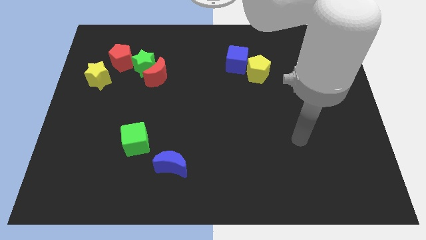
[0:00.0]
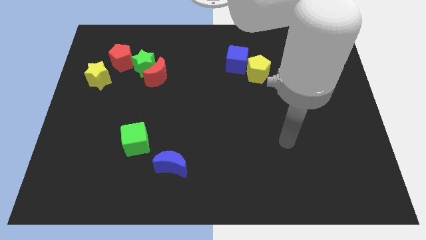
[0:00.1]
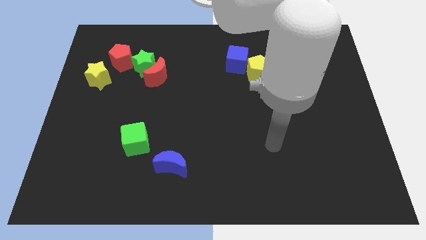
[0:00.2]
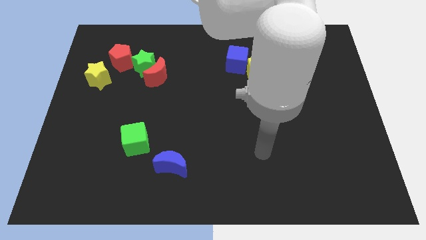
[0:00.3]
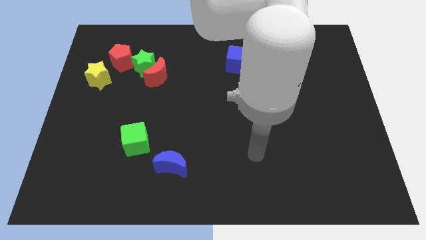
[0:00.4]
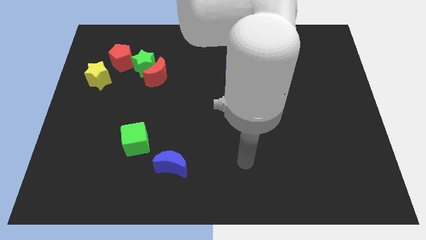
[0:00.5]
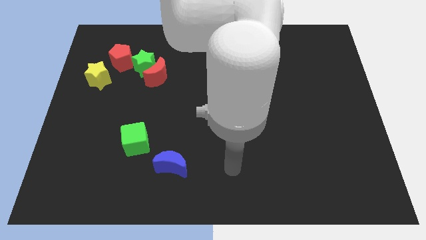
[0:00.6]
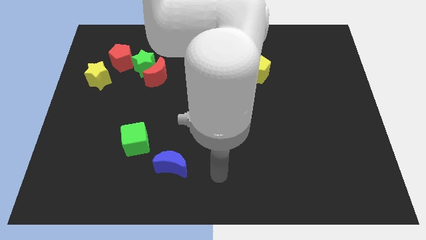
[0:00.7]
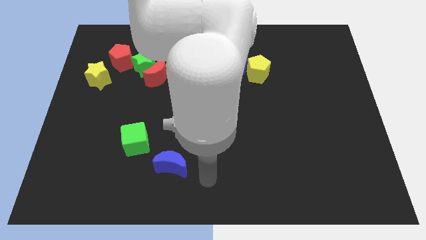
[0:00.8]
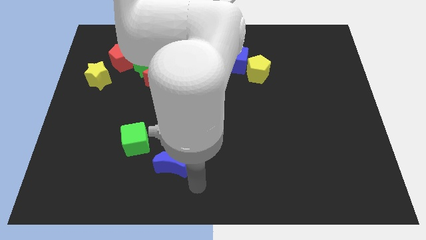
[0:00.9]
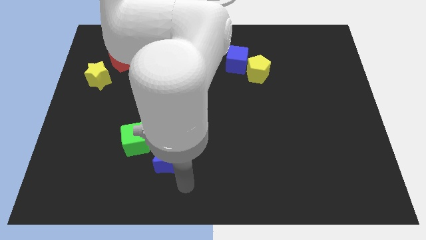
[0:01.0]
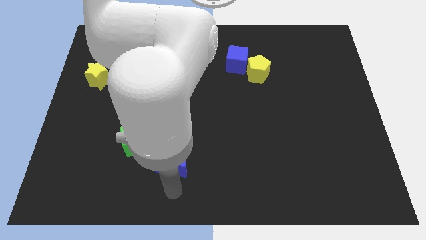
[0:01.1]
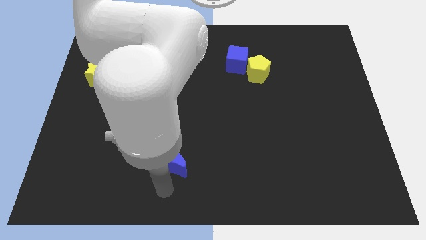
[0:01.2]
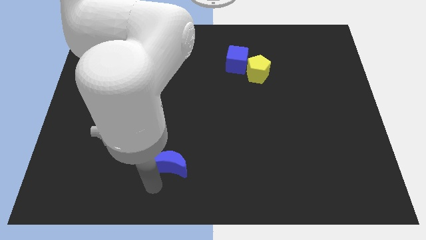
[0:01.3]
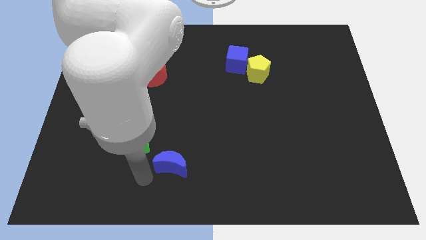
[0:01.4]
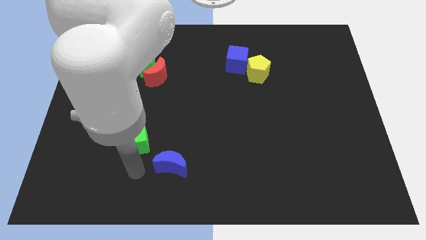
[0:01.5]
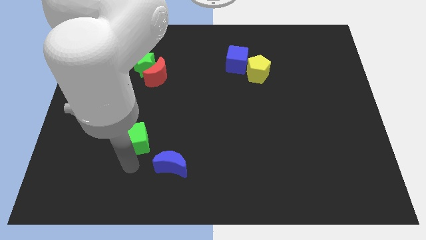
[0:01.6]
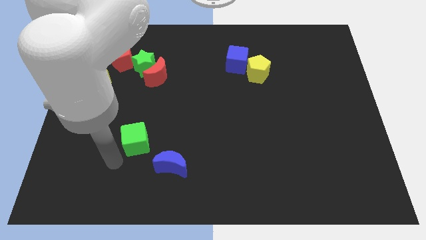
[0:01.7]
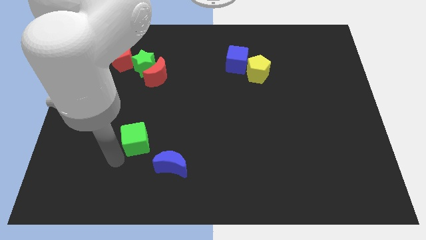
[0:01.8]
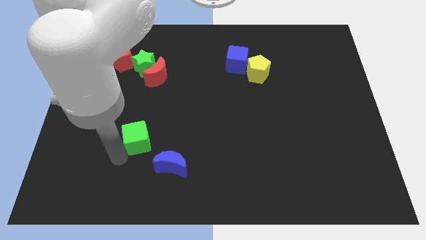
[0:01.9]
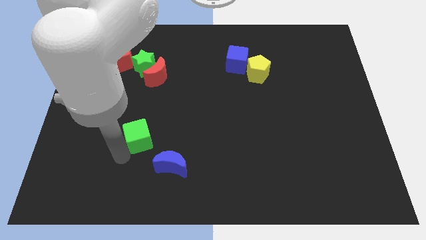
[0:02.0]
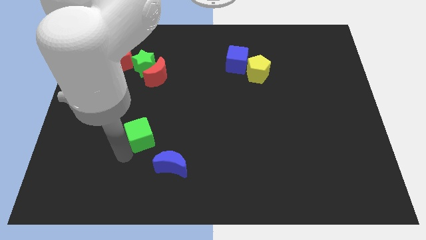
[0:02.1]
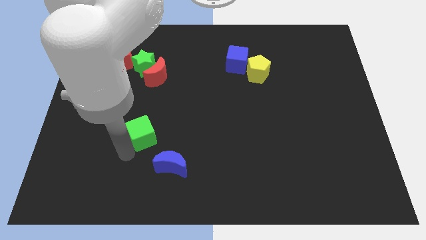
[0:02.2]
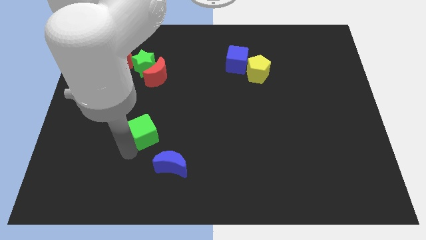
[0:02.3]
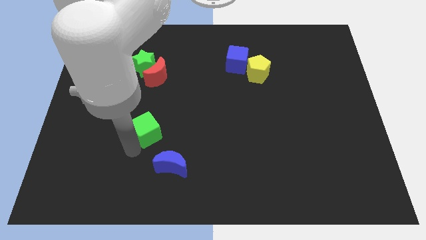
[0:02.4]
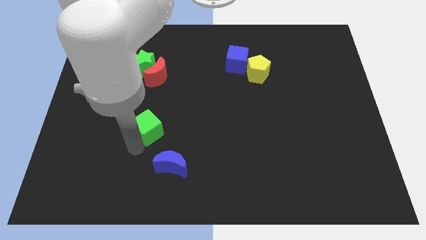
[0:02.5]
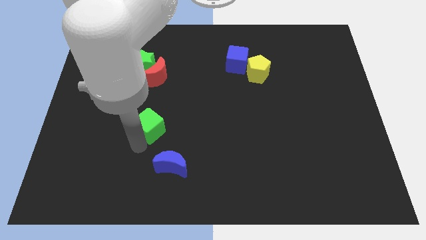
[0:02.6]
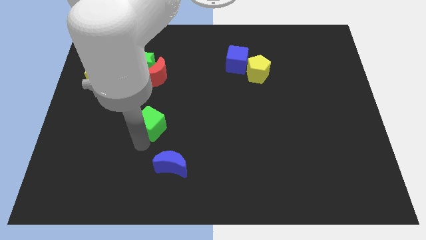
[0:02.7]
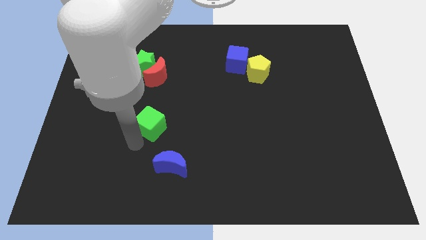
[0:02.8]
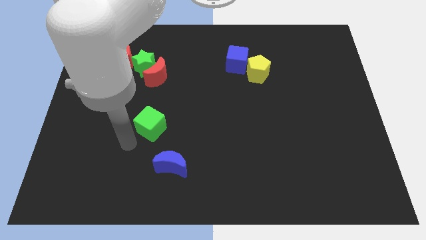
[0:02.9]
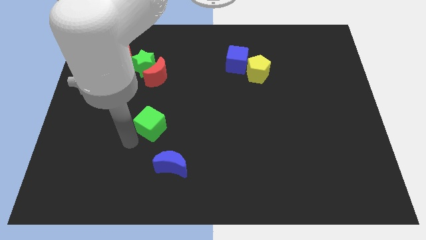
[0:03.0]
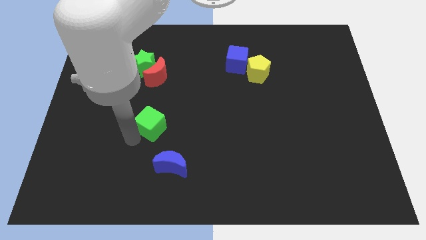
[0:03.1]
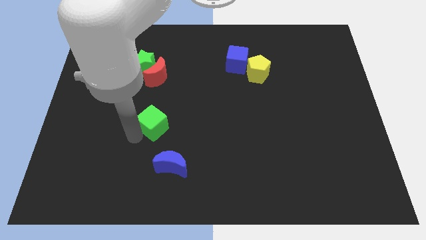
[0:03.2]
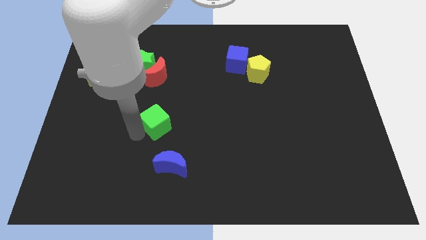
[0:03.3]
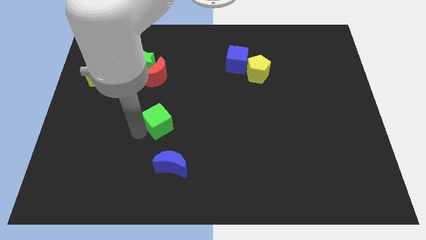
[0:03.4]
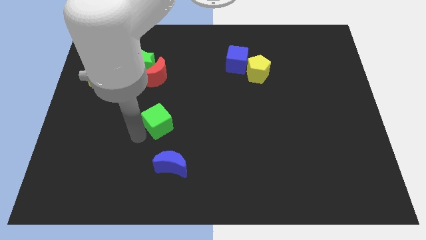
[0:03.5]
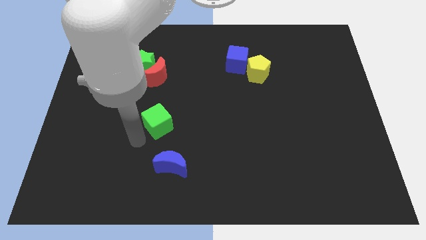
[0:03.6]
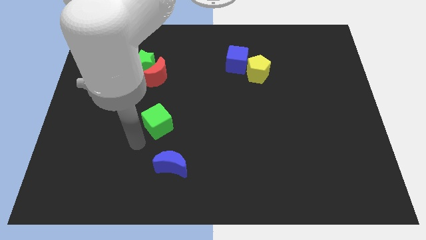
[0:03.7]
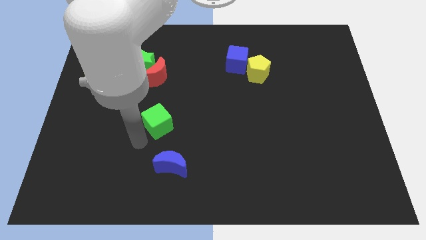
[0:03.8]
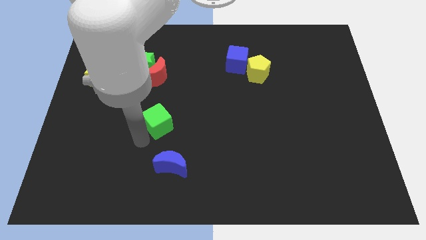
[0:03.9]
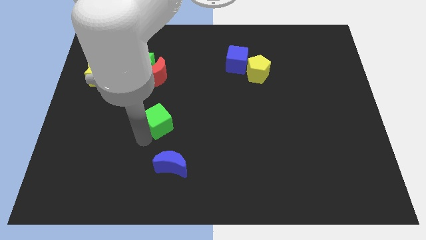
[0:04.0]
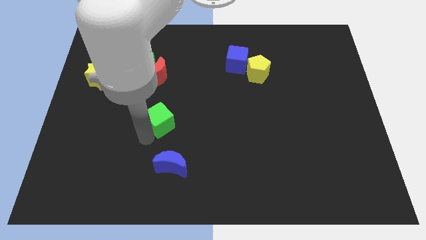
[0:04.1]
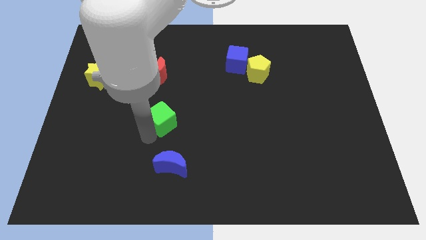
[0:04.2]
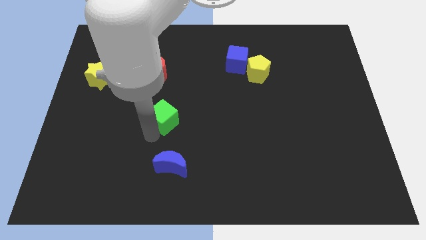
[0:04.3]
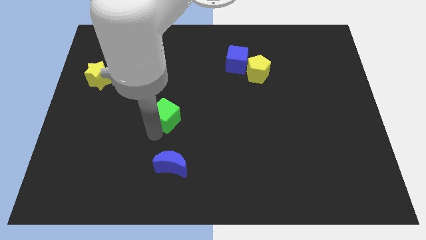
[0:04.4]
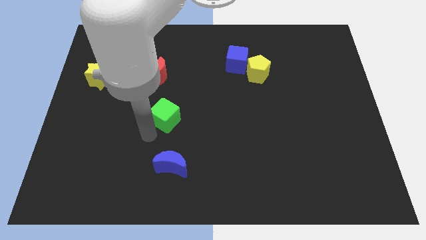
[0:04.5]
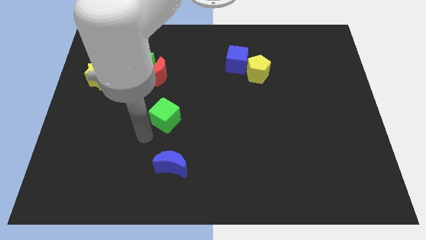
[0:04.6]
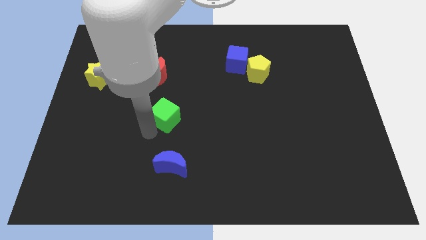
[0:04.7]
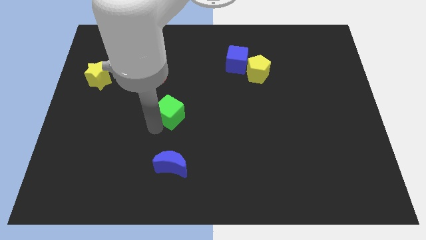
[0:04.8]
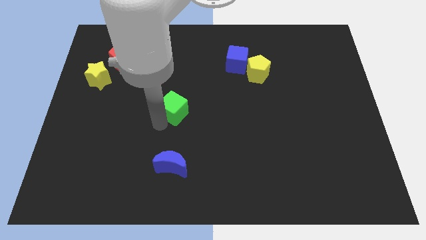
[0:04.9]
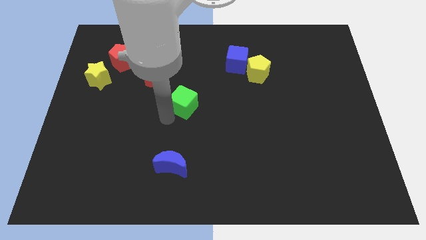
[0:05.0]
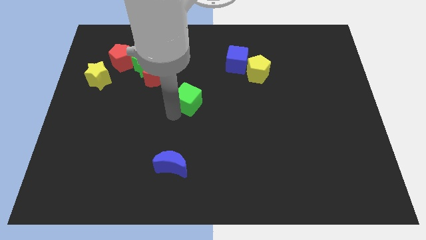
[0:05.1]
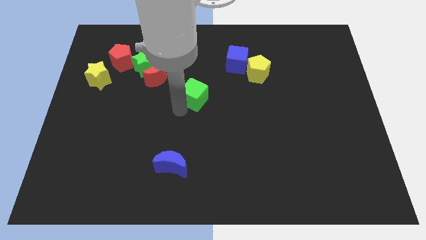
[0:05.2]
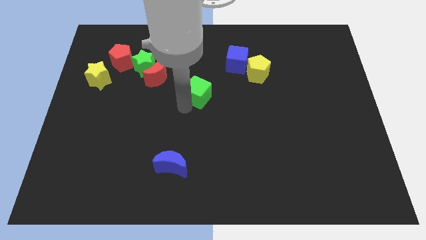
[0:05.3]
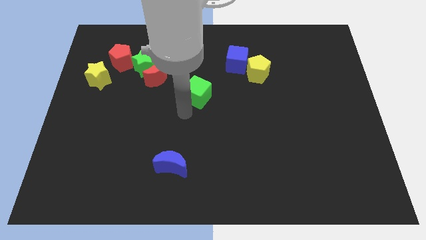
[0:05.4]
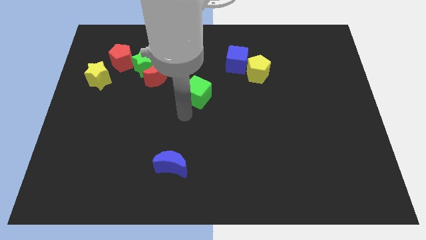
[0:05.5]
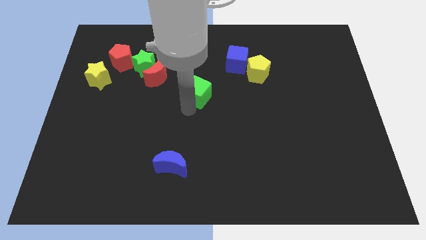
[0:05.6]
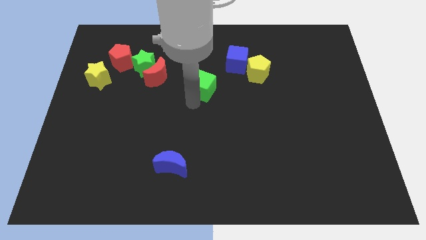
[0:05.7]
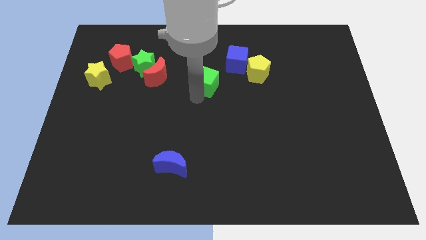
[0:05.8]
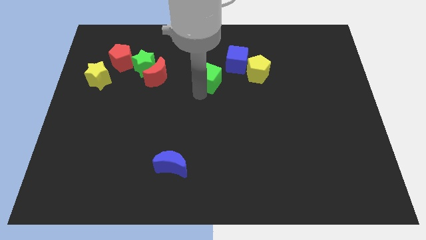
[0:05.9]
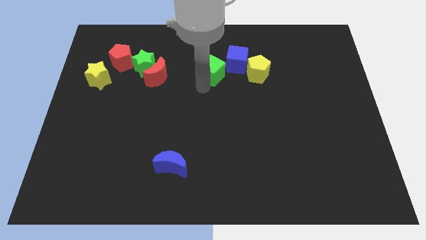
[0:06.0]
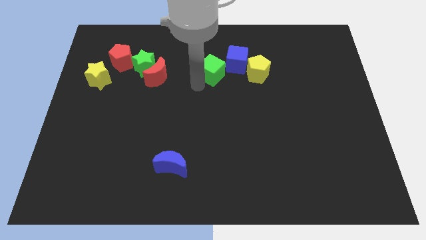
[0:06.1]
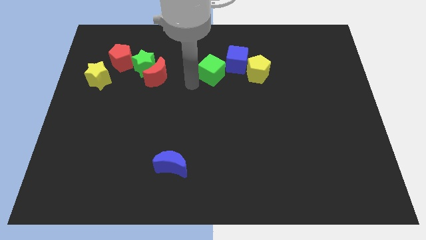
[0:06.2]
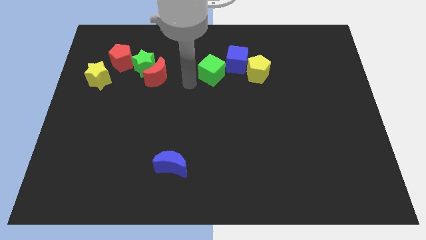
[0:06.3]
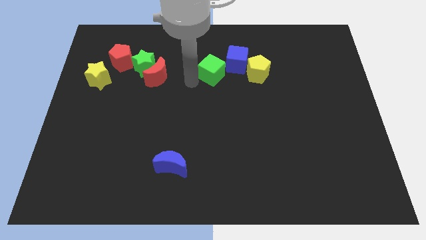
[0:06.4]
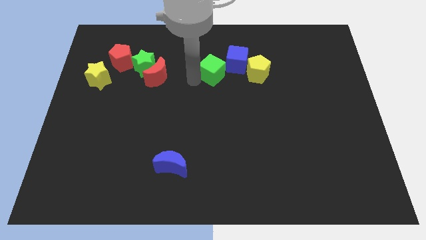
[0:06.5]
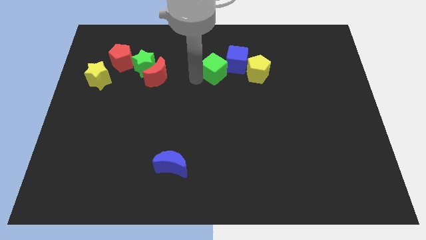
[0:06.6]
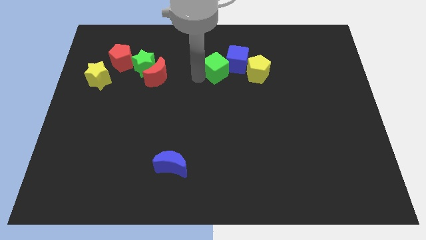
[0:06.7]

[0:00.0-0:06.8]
move the green cube next to the blue cube
